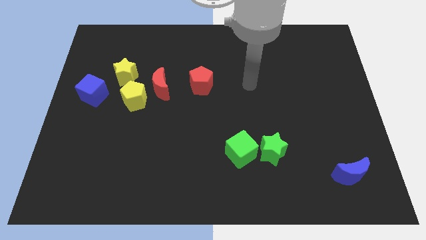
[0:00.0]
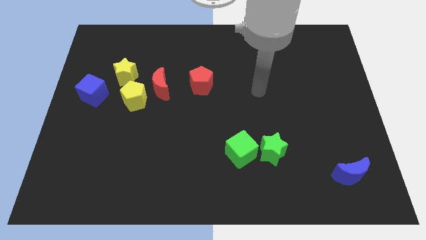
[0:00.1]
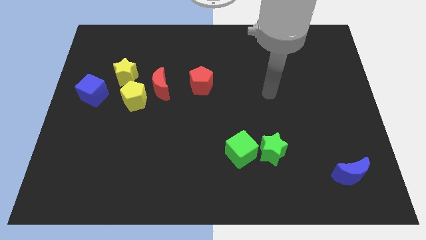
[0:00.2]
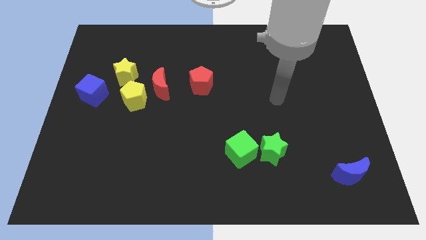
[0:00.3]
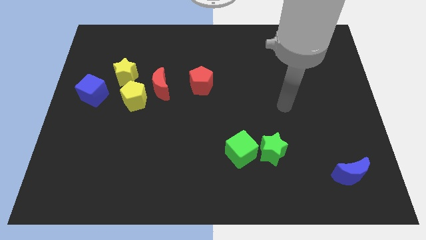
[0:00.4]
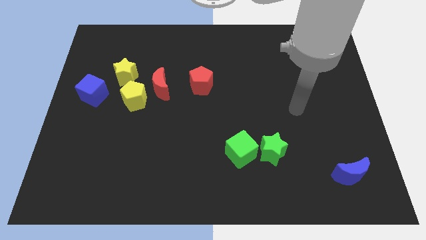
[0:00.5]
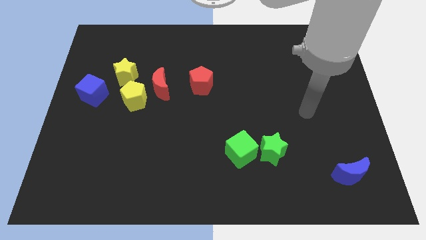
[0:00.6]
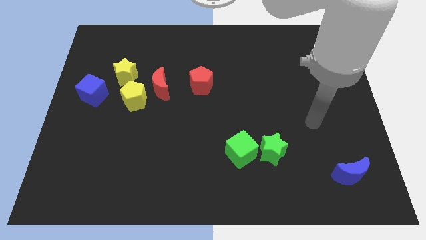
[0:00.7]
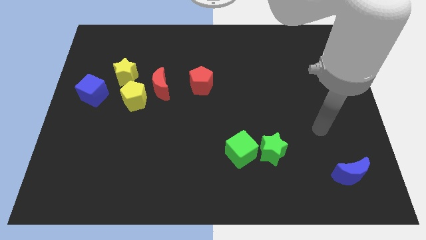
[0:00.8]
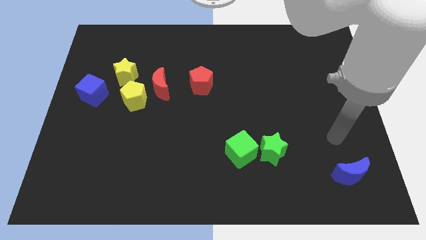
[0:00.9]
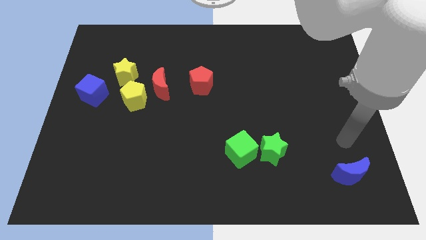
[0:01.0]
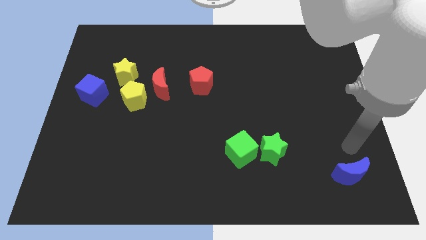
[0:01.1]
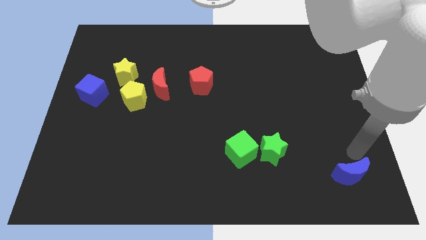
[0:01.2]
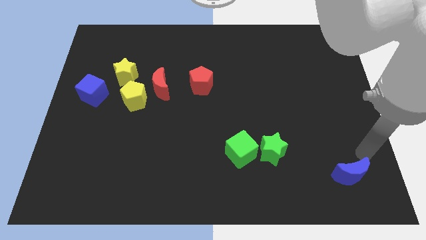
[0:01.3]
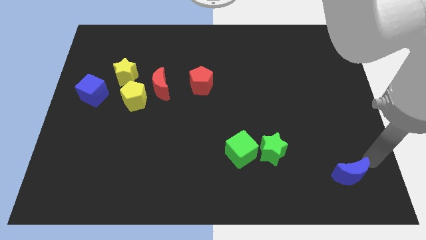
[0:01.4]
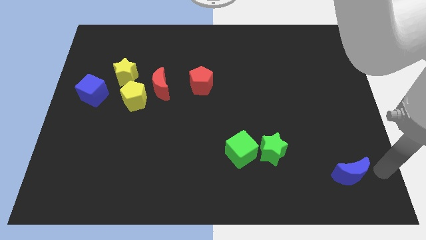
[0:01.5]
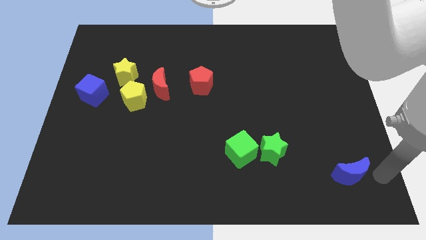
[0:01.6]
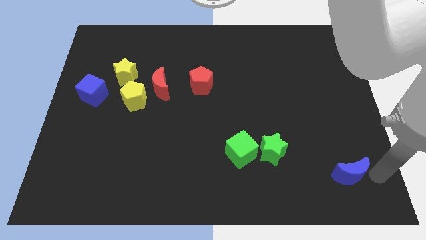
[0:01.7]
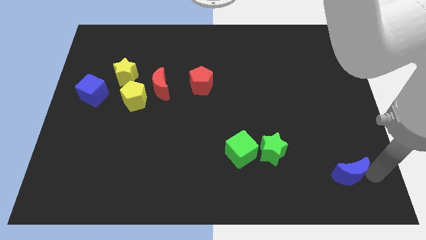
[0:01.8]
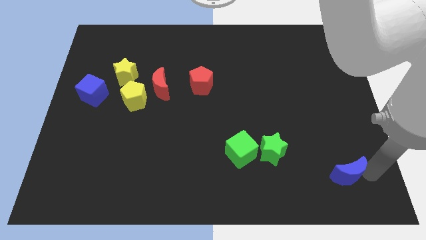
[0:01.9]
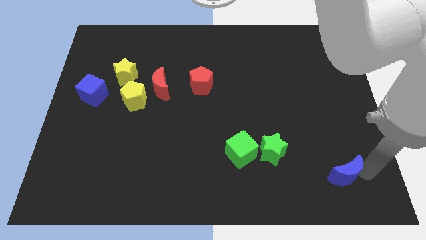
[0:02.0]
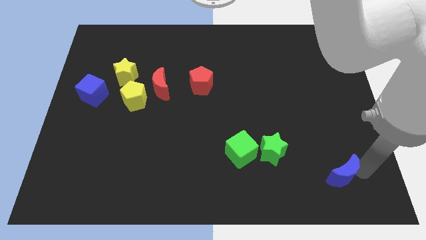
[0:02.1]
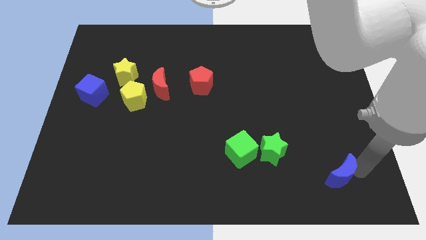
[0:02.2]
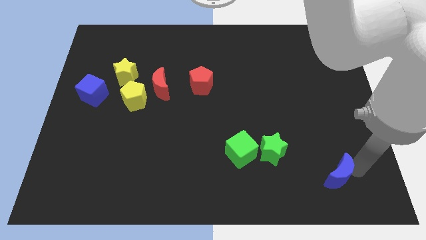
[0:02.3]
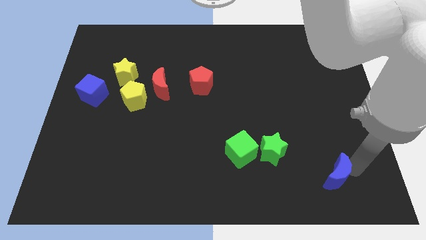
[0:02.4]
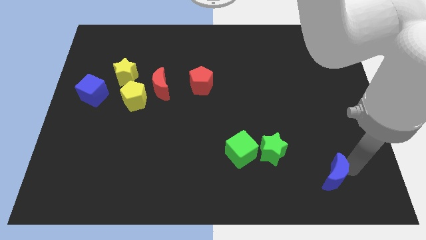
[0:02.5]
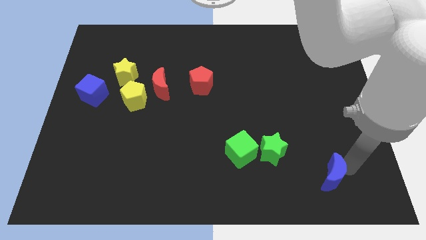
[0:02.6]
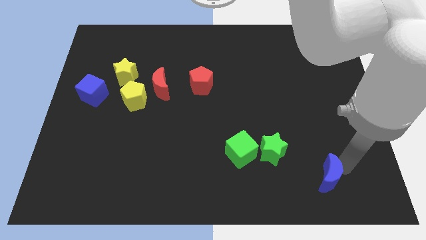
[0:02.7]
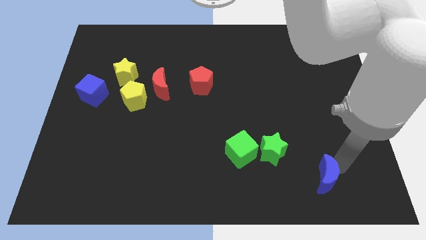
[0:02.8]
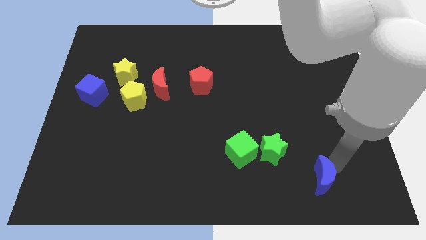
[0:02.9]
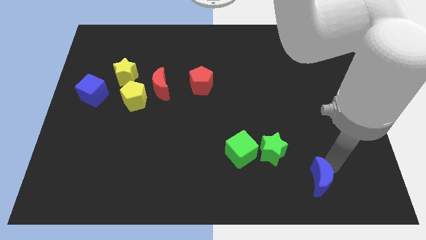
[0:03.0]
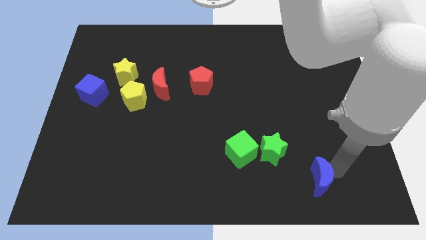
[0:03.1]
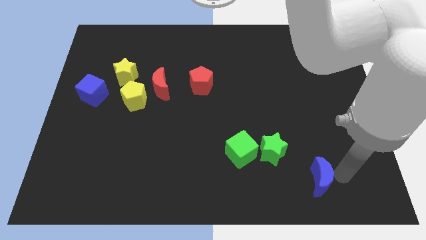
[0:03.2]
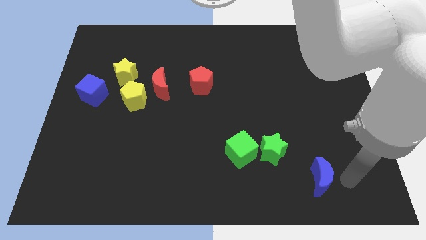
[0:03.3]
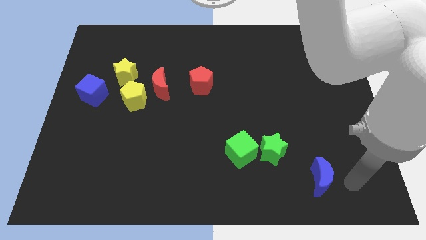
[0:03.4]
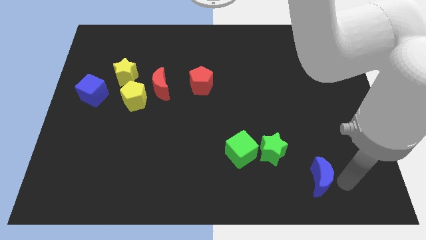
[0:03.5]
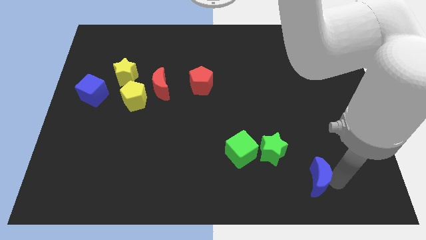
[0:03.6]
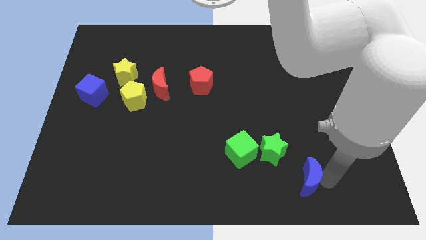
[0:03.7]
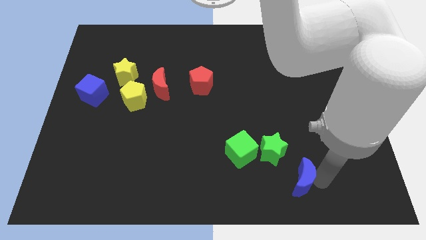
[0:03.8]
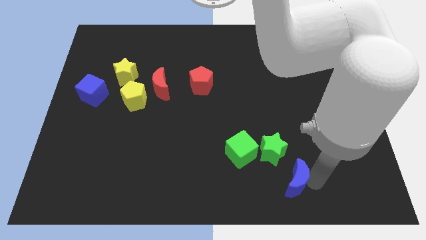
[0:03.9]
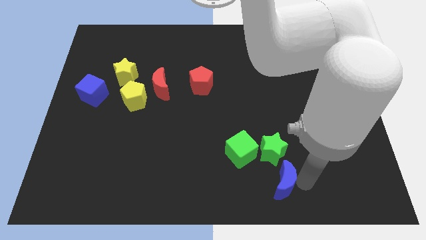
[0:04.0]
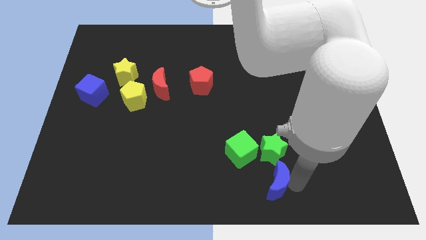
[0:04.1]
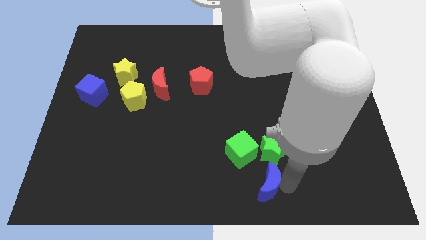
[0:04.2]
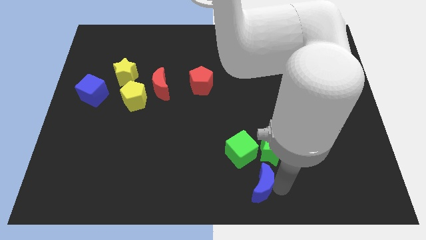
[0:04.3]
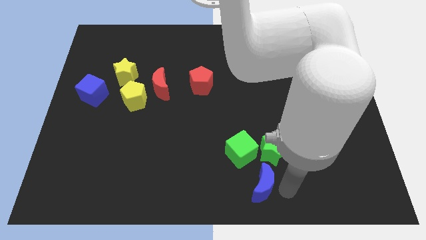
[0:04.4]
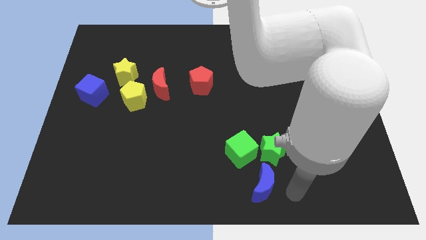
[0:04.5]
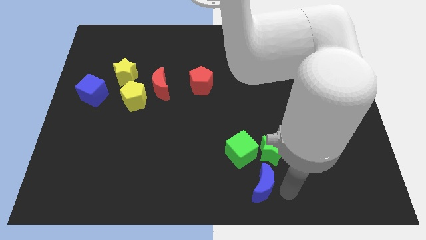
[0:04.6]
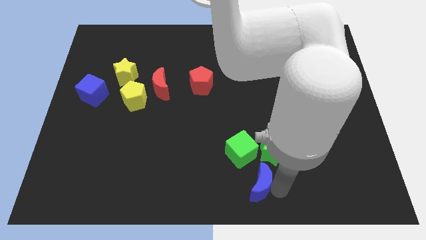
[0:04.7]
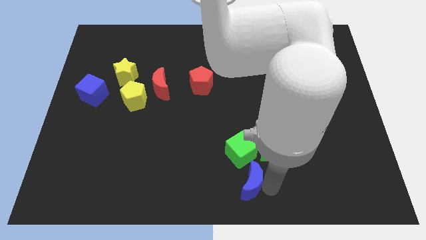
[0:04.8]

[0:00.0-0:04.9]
push the blue moon to the left

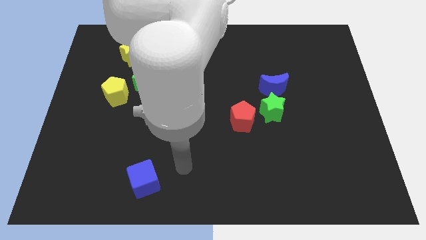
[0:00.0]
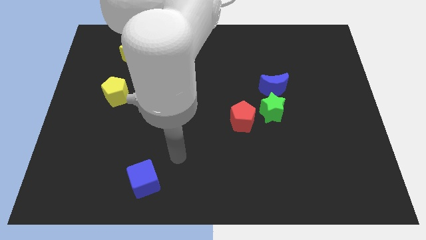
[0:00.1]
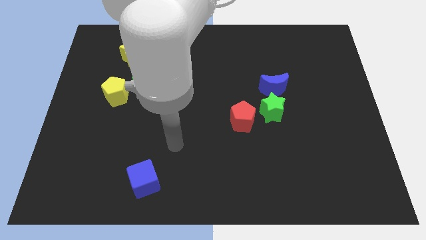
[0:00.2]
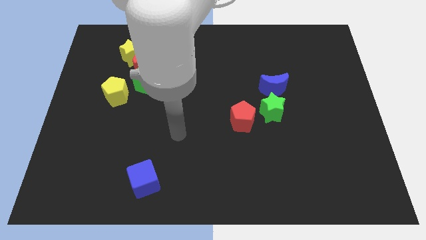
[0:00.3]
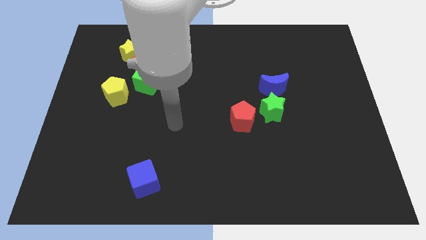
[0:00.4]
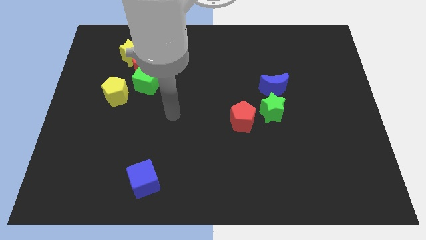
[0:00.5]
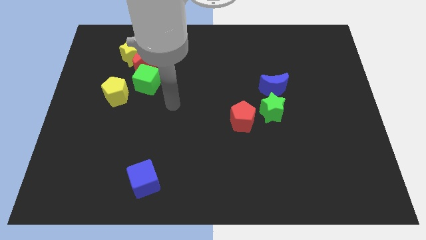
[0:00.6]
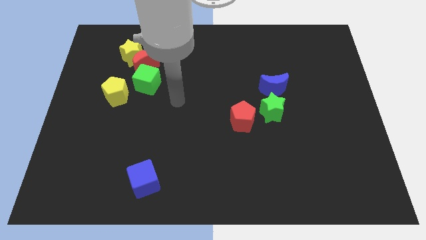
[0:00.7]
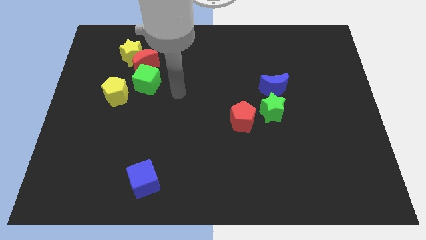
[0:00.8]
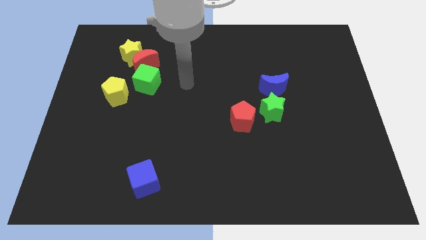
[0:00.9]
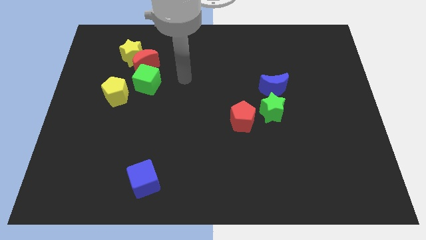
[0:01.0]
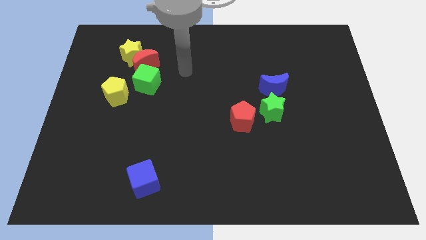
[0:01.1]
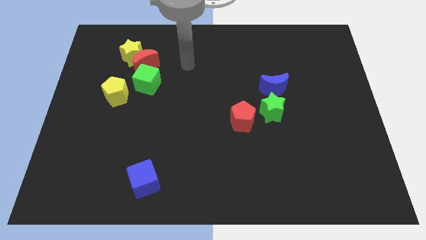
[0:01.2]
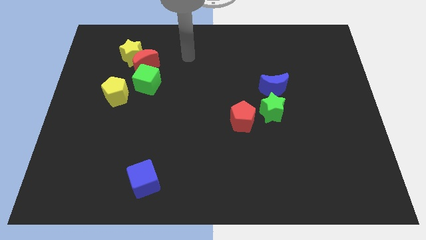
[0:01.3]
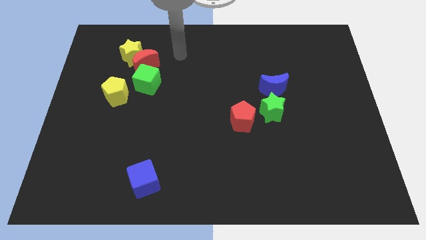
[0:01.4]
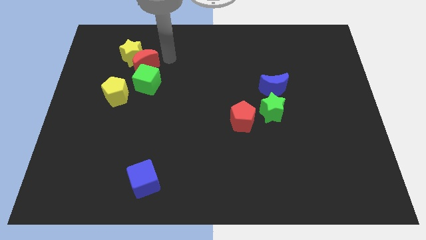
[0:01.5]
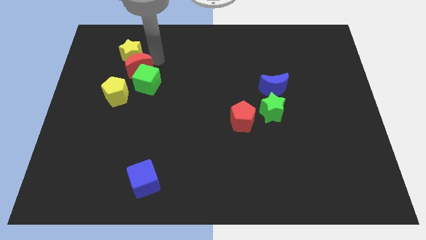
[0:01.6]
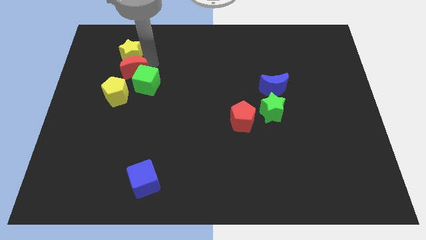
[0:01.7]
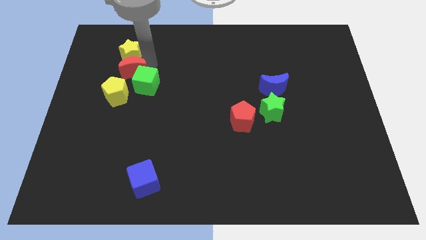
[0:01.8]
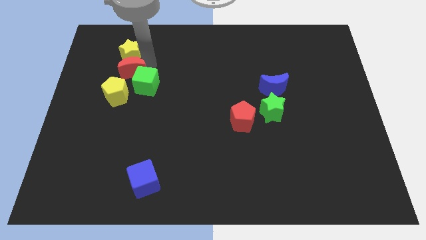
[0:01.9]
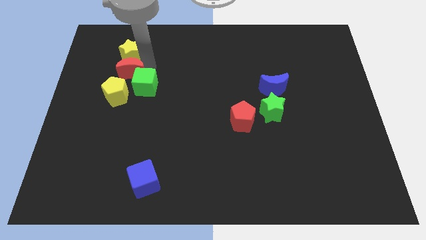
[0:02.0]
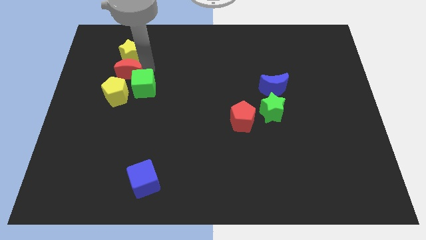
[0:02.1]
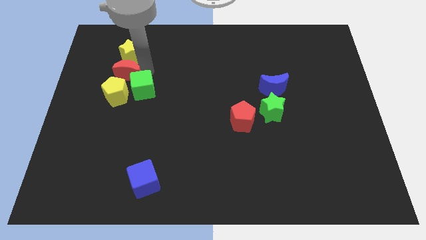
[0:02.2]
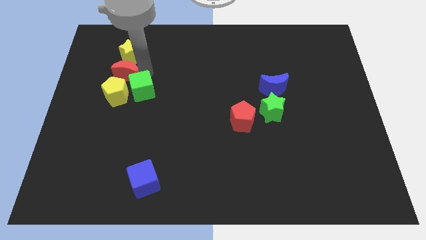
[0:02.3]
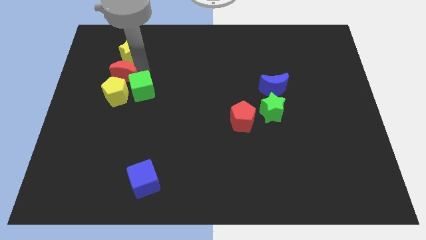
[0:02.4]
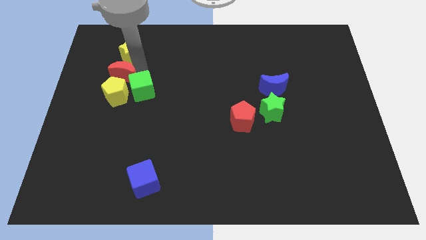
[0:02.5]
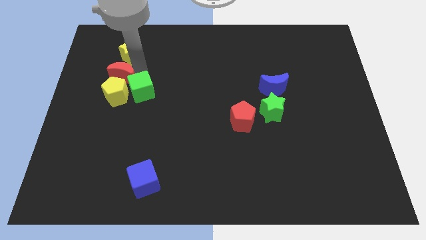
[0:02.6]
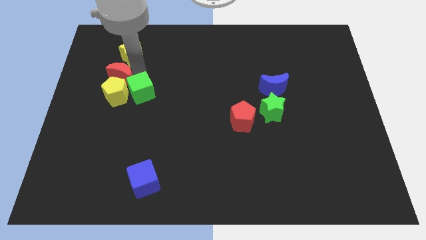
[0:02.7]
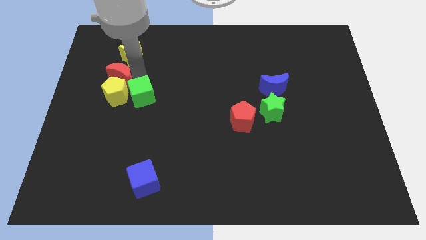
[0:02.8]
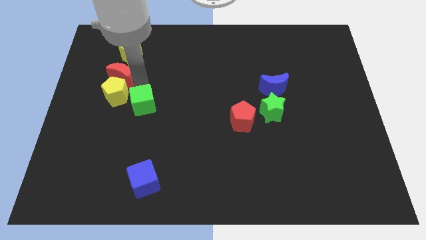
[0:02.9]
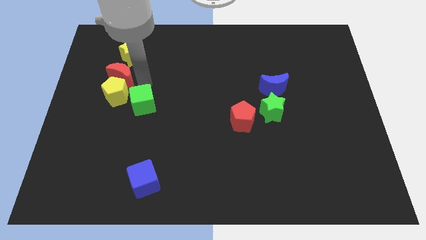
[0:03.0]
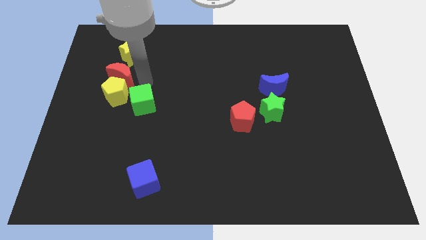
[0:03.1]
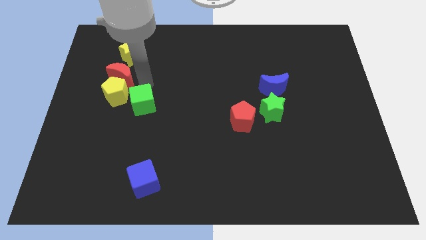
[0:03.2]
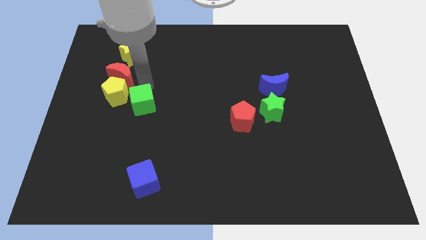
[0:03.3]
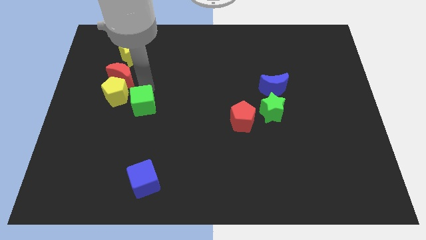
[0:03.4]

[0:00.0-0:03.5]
slightly move the green cube downwards
